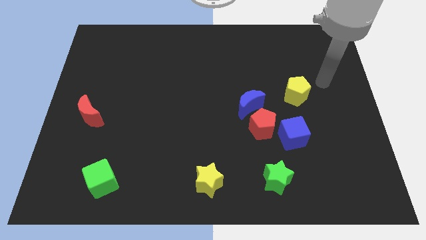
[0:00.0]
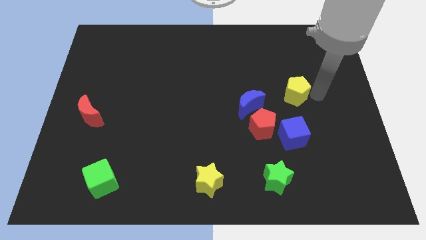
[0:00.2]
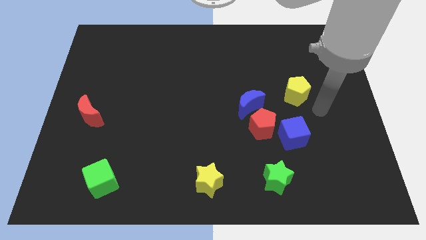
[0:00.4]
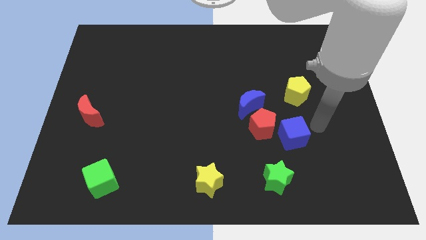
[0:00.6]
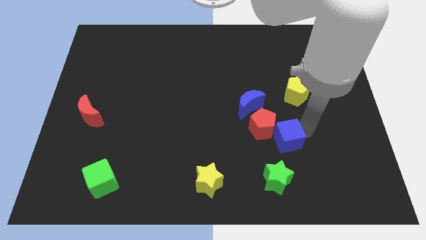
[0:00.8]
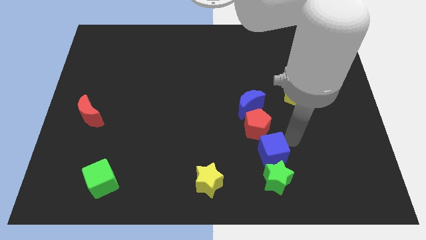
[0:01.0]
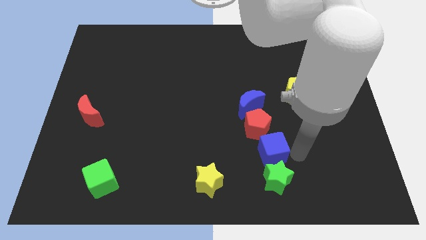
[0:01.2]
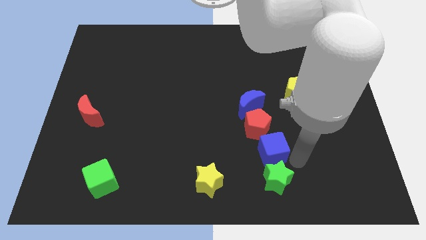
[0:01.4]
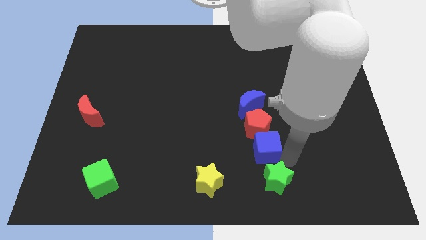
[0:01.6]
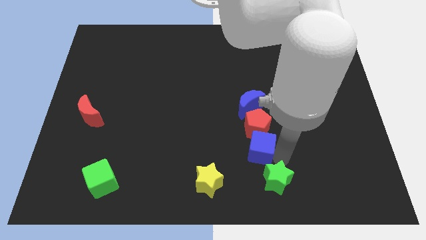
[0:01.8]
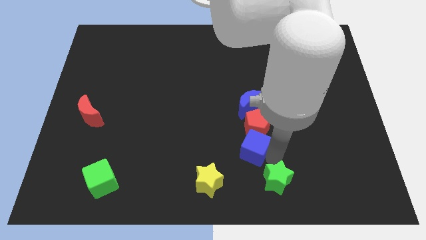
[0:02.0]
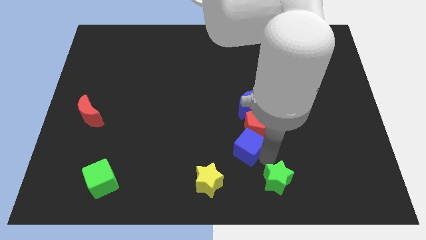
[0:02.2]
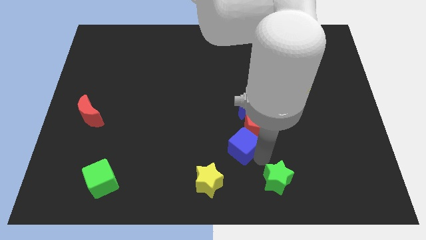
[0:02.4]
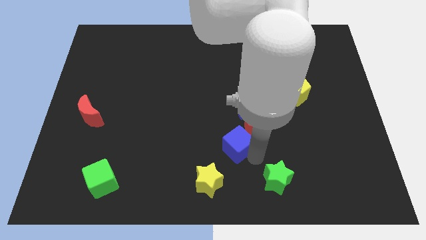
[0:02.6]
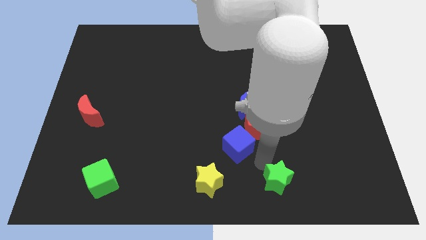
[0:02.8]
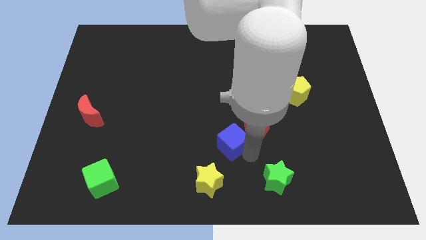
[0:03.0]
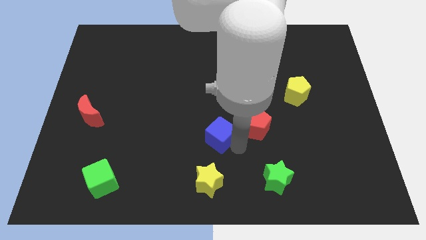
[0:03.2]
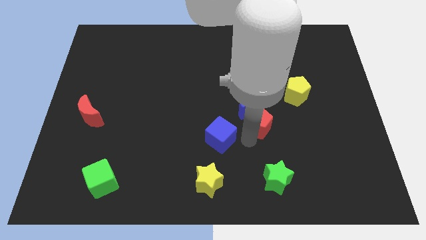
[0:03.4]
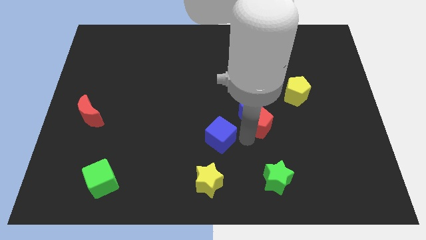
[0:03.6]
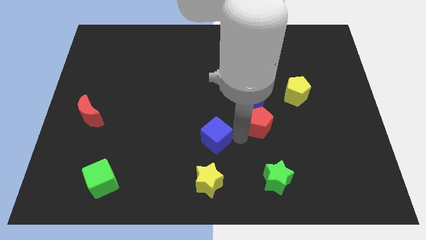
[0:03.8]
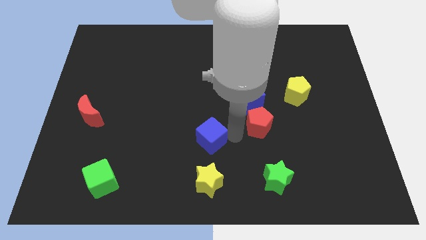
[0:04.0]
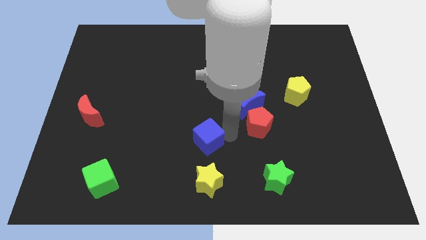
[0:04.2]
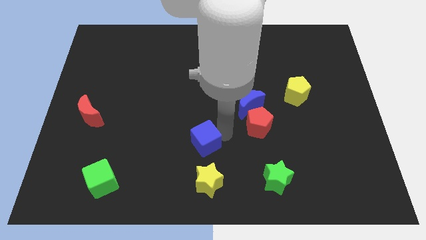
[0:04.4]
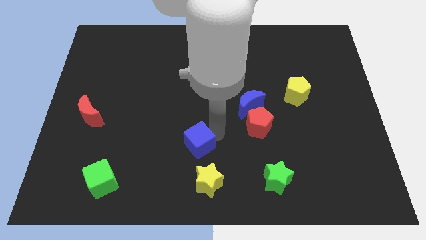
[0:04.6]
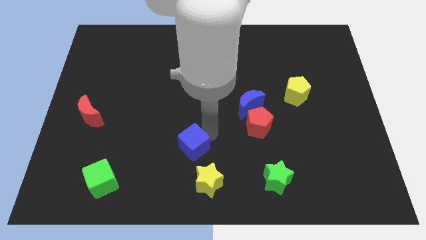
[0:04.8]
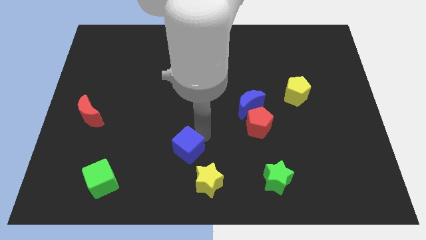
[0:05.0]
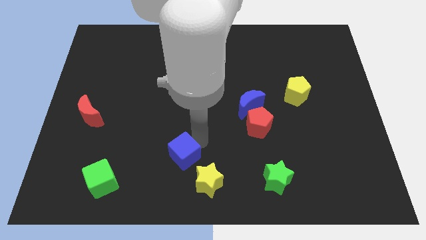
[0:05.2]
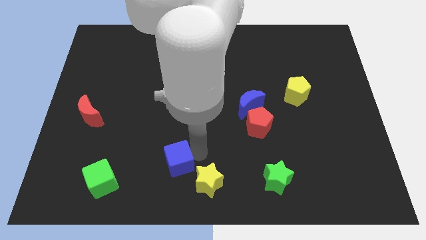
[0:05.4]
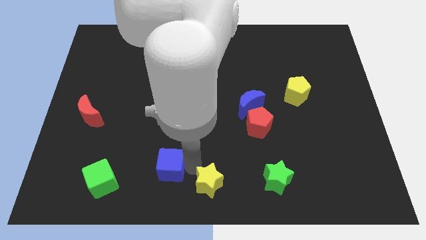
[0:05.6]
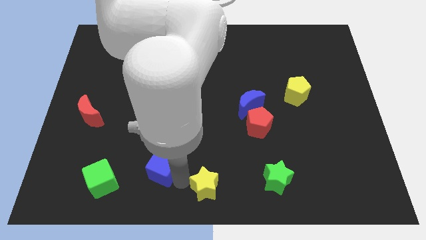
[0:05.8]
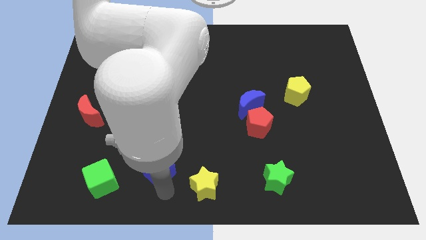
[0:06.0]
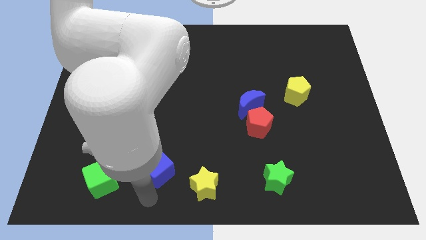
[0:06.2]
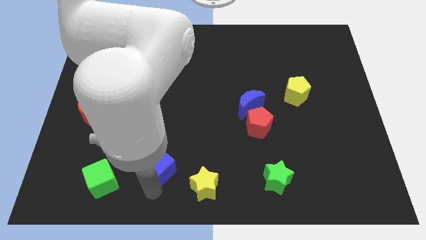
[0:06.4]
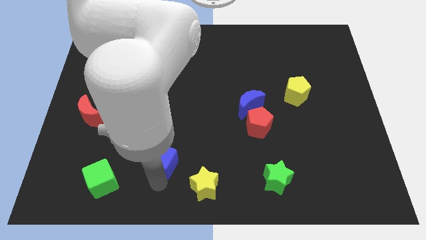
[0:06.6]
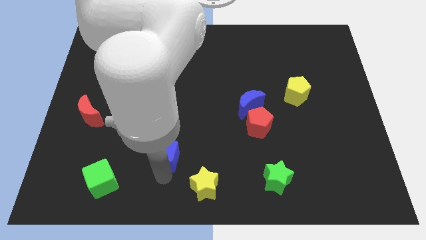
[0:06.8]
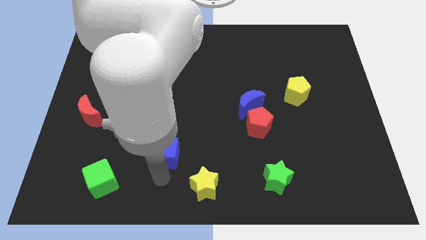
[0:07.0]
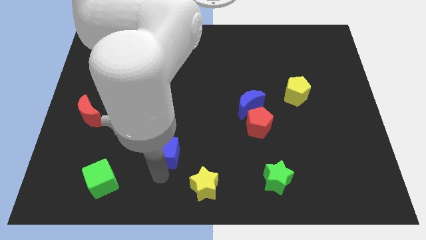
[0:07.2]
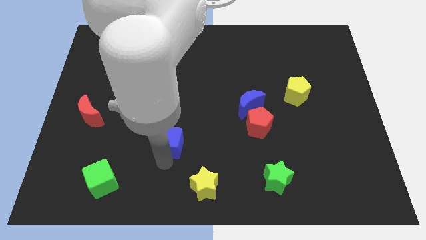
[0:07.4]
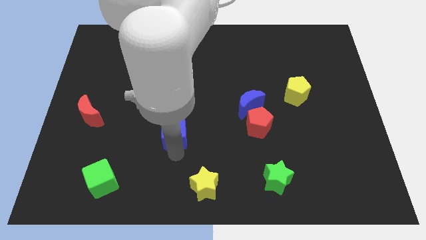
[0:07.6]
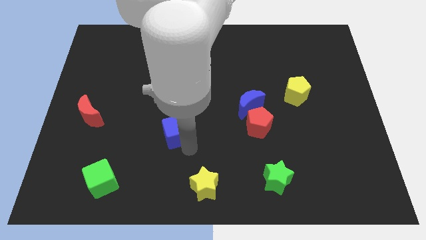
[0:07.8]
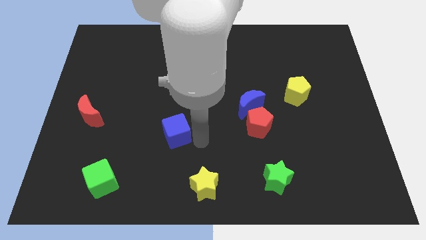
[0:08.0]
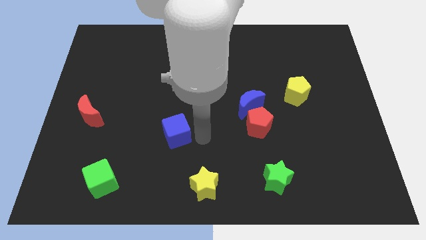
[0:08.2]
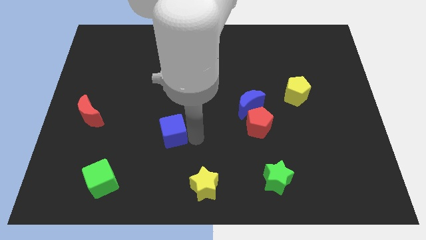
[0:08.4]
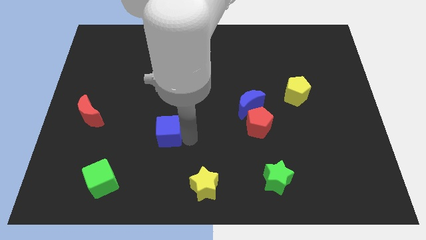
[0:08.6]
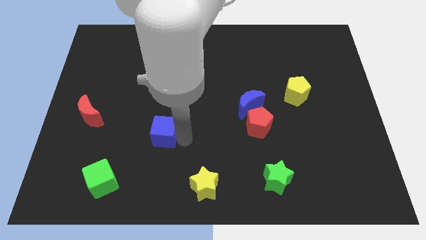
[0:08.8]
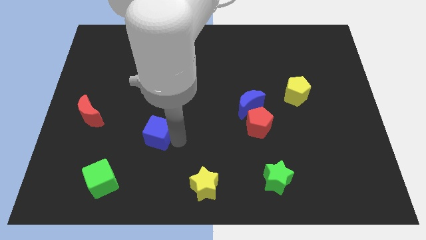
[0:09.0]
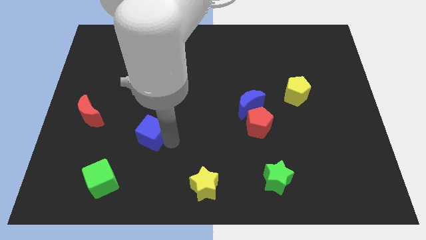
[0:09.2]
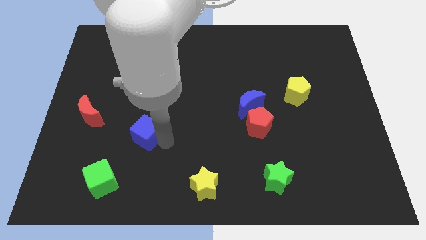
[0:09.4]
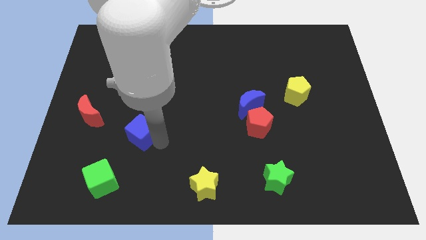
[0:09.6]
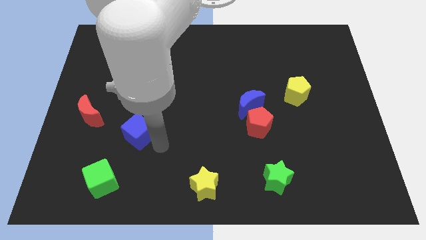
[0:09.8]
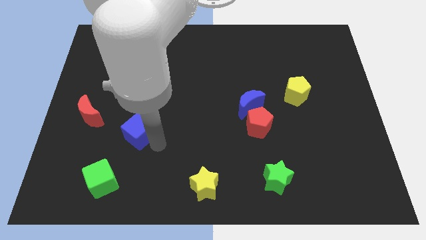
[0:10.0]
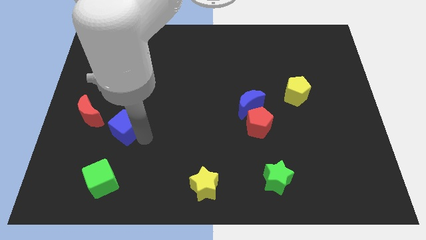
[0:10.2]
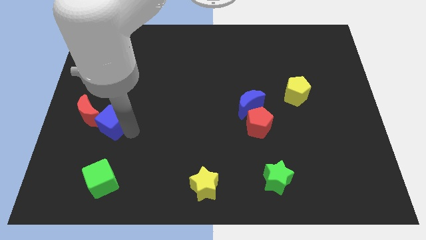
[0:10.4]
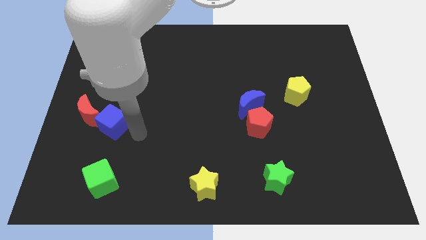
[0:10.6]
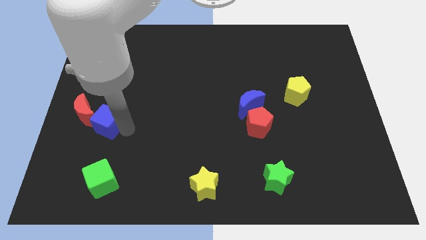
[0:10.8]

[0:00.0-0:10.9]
push the blue cube to the red moon

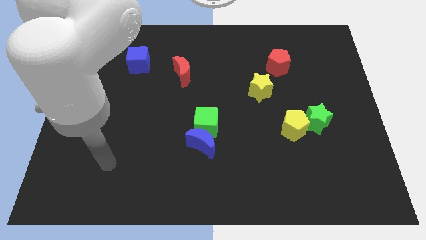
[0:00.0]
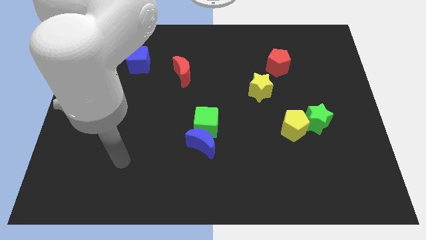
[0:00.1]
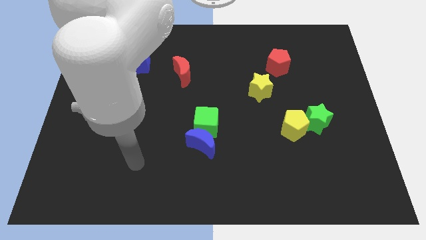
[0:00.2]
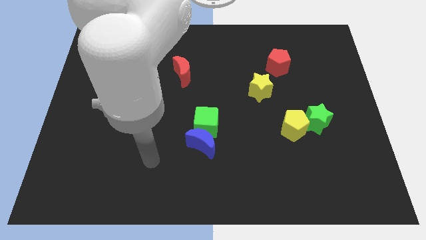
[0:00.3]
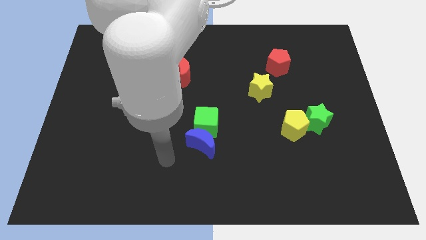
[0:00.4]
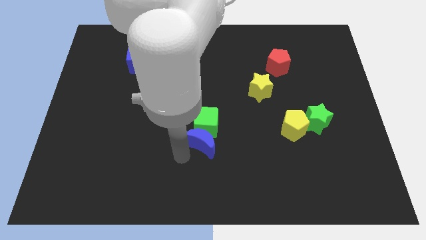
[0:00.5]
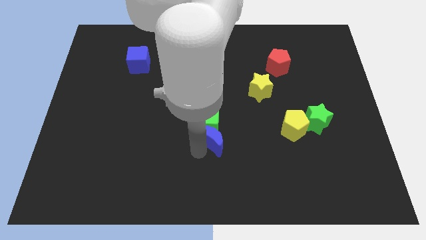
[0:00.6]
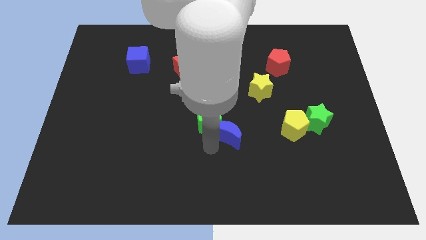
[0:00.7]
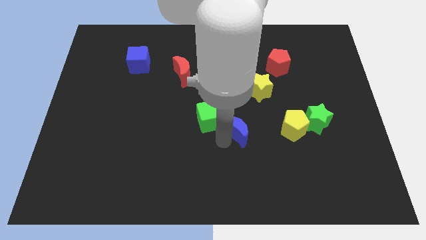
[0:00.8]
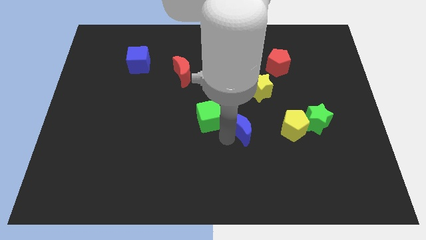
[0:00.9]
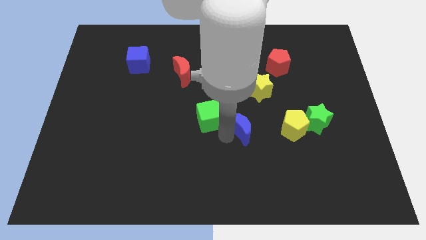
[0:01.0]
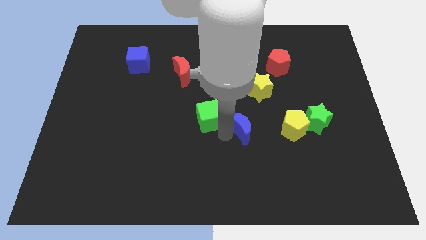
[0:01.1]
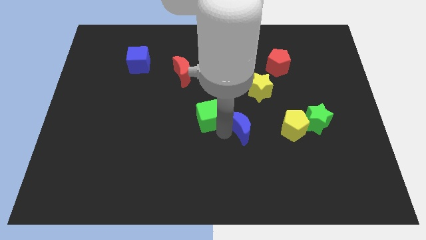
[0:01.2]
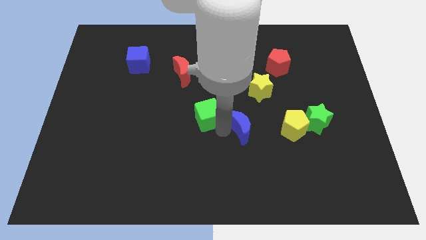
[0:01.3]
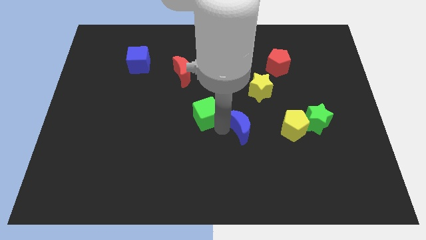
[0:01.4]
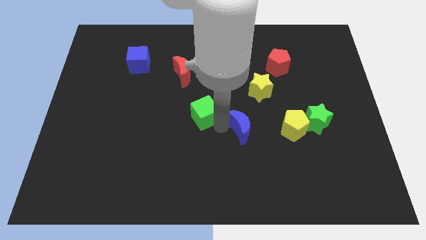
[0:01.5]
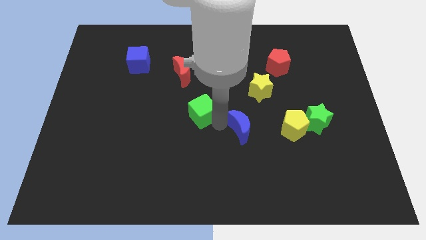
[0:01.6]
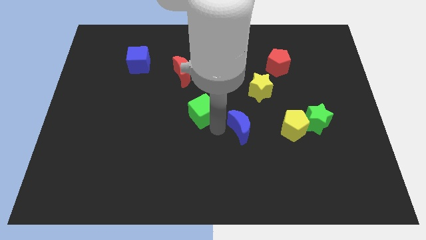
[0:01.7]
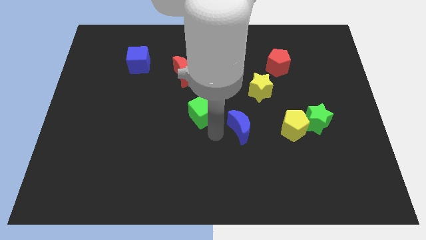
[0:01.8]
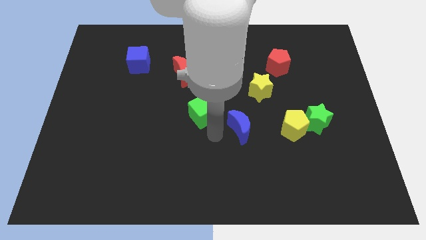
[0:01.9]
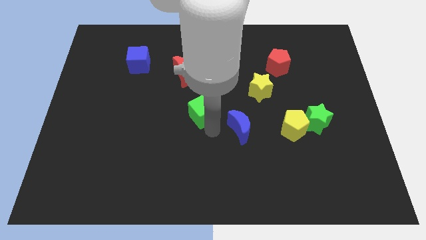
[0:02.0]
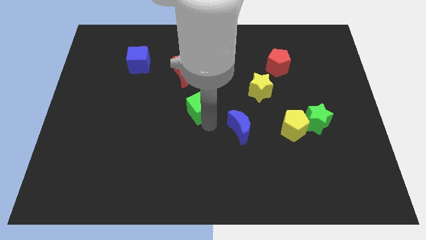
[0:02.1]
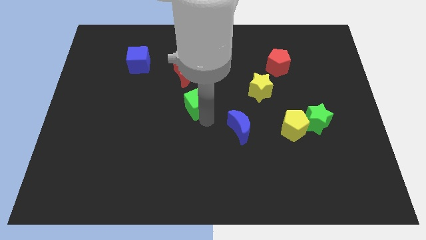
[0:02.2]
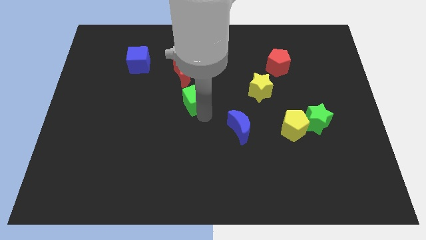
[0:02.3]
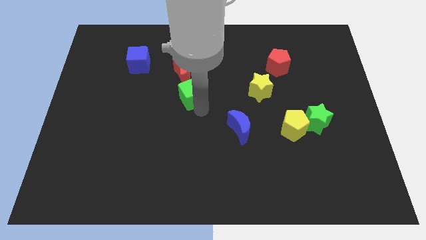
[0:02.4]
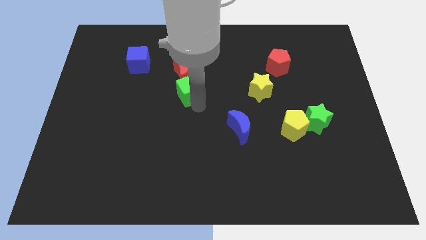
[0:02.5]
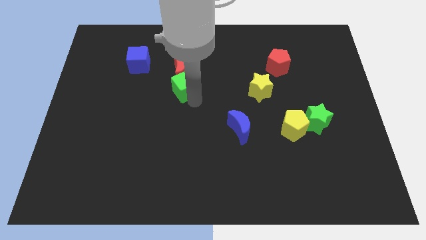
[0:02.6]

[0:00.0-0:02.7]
move the green cube to the red moon
